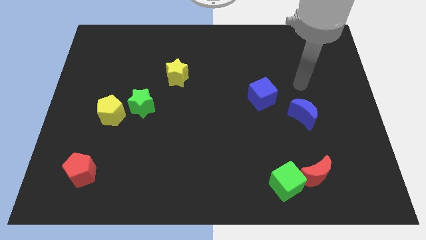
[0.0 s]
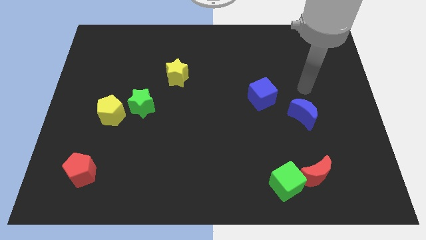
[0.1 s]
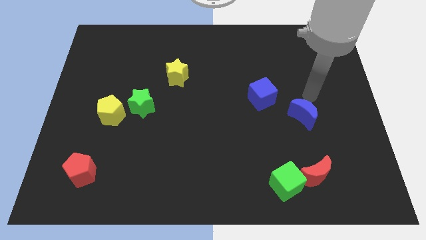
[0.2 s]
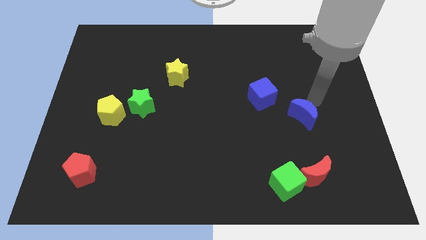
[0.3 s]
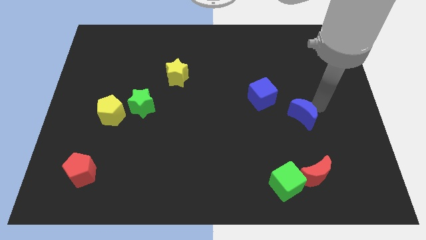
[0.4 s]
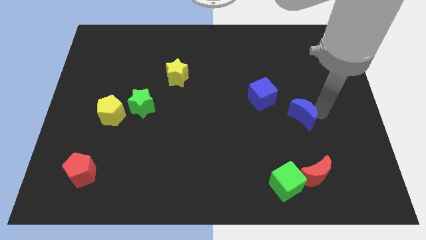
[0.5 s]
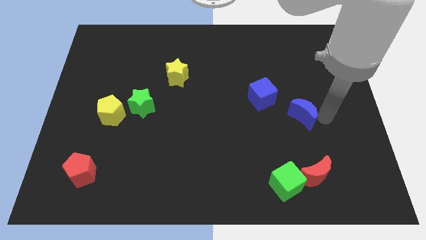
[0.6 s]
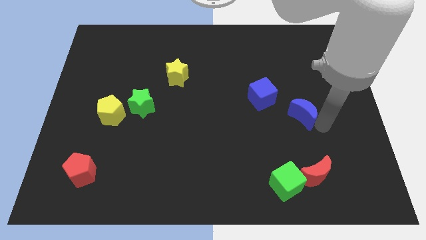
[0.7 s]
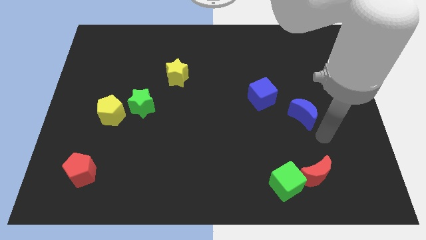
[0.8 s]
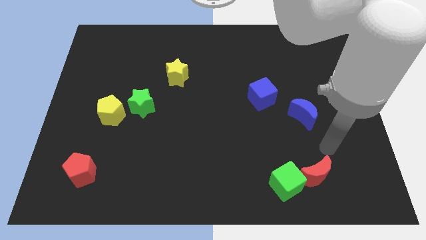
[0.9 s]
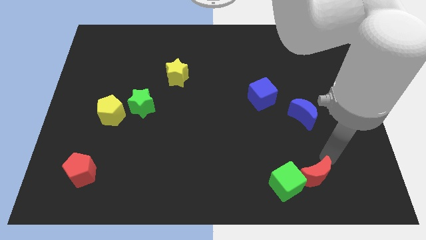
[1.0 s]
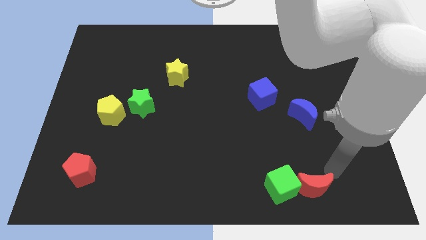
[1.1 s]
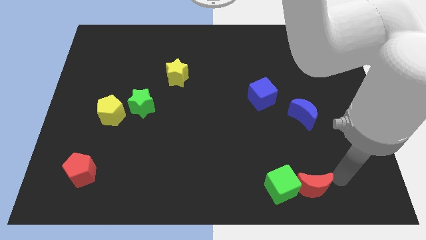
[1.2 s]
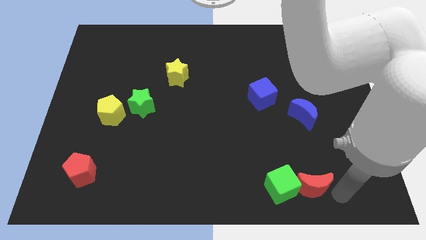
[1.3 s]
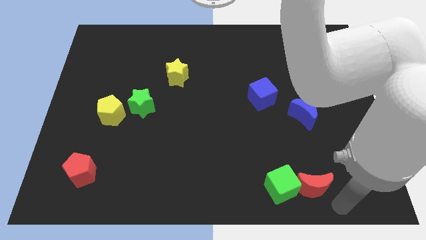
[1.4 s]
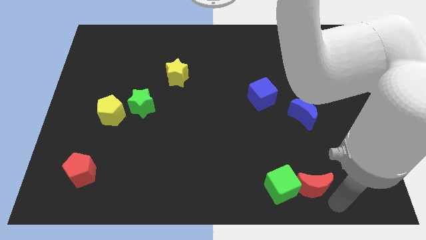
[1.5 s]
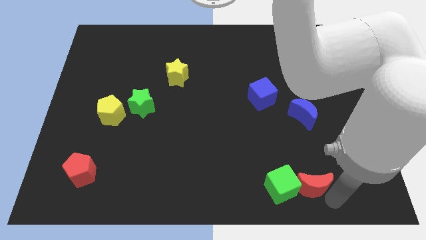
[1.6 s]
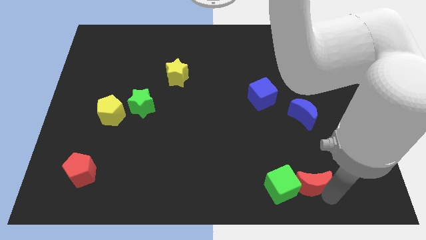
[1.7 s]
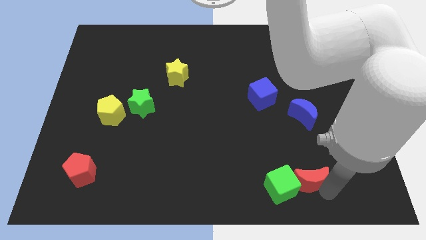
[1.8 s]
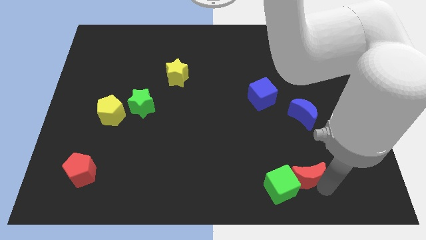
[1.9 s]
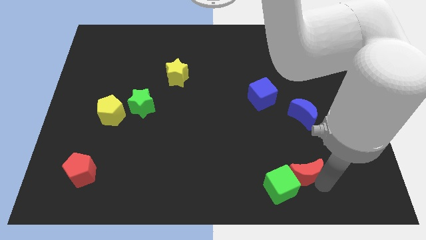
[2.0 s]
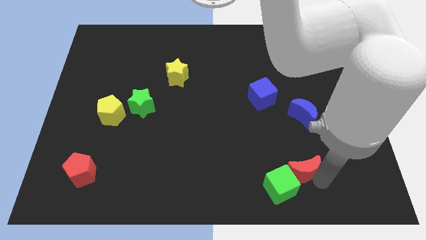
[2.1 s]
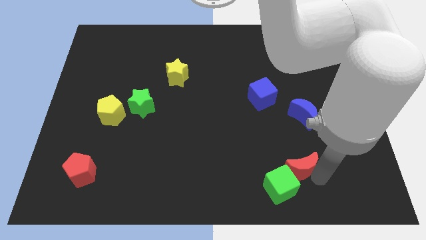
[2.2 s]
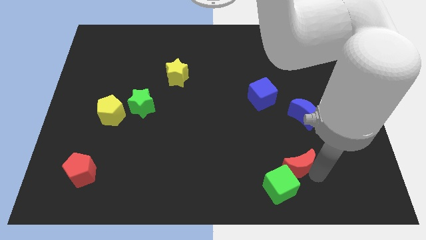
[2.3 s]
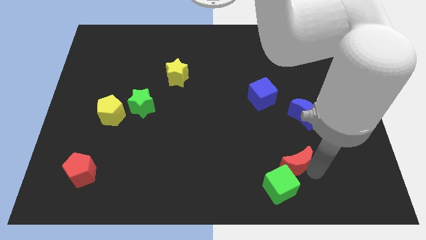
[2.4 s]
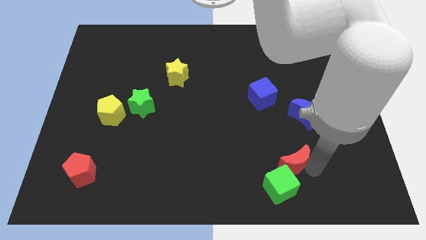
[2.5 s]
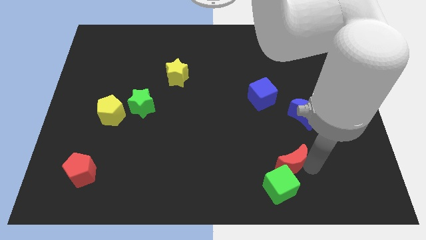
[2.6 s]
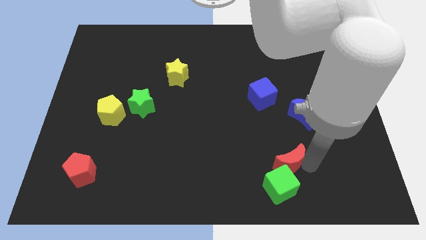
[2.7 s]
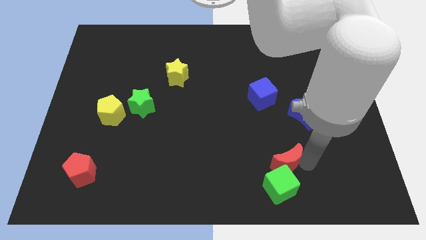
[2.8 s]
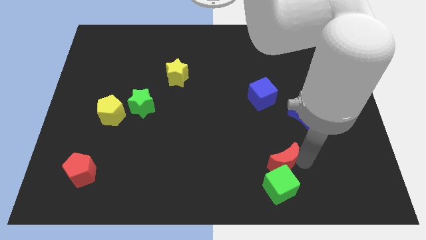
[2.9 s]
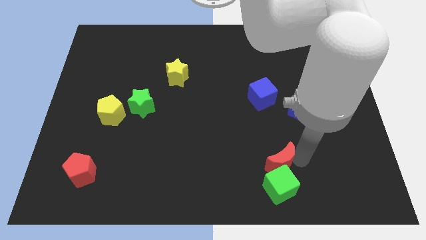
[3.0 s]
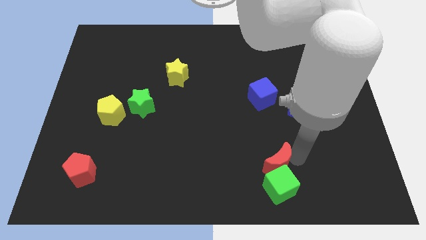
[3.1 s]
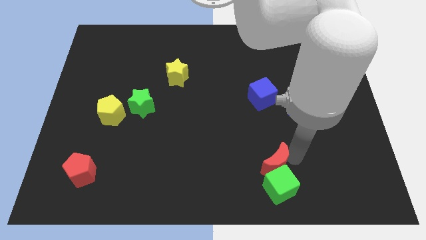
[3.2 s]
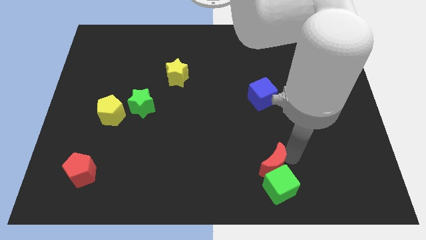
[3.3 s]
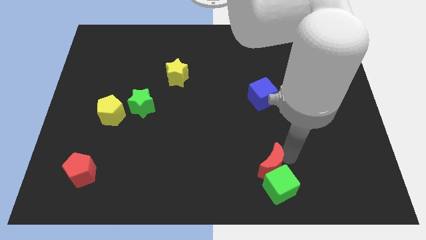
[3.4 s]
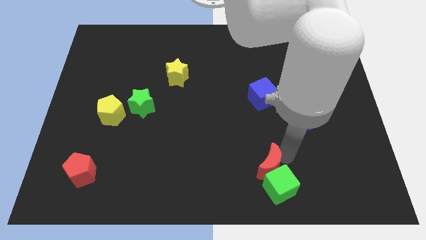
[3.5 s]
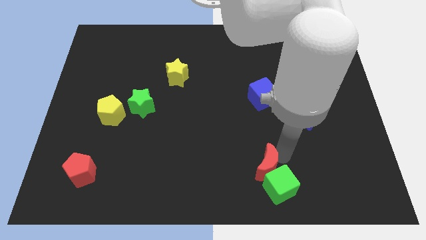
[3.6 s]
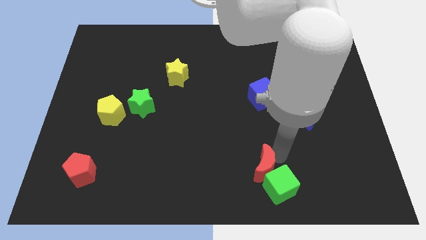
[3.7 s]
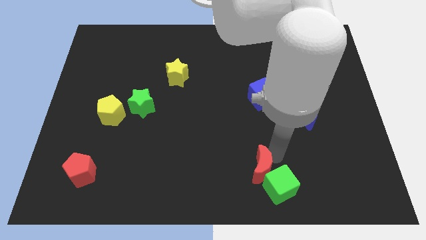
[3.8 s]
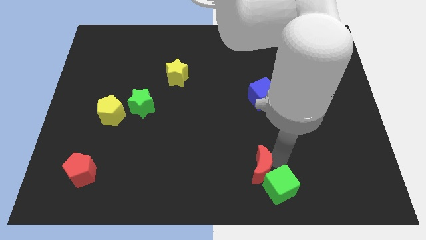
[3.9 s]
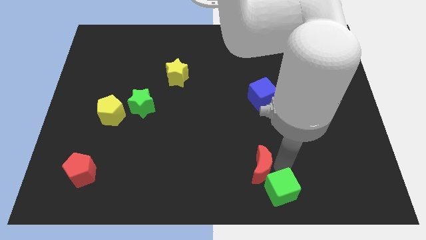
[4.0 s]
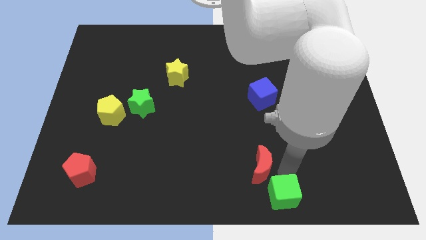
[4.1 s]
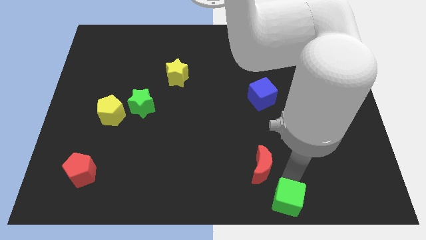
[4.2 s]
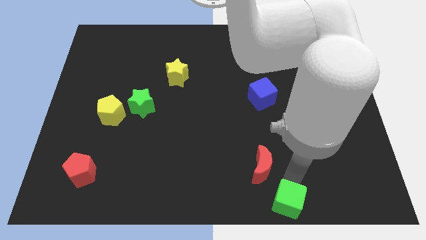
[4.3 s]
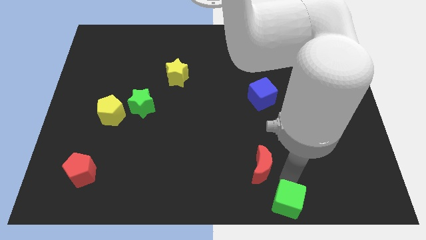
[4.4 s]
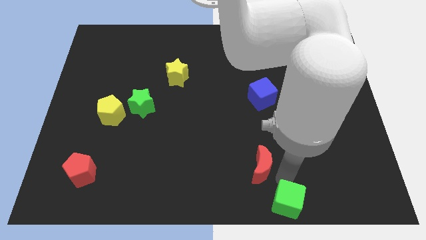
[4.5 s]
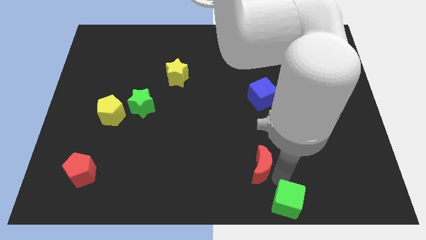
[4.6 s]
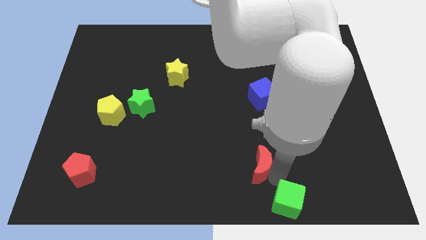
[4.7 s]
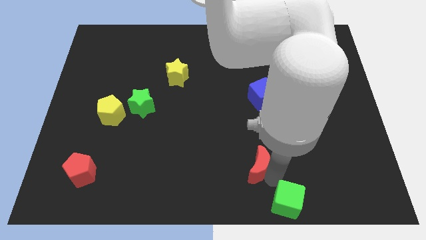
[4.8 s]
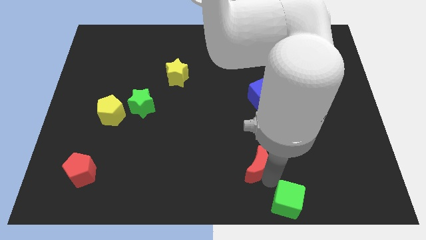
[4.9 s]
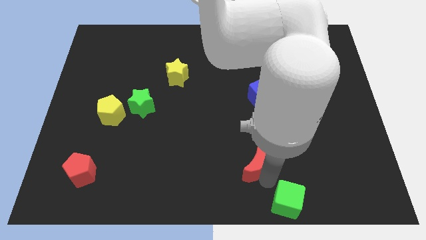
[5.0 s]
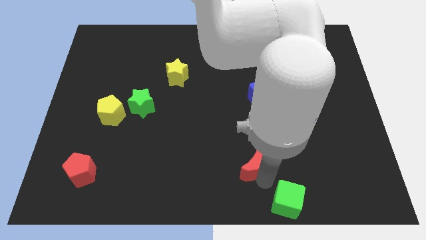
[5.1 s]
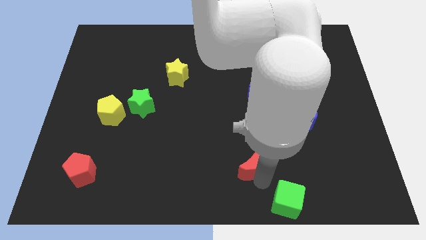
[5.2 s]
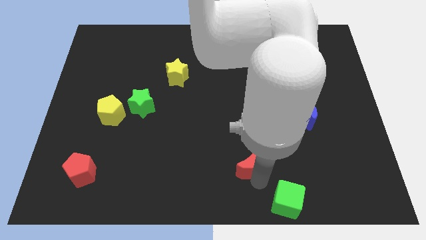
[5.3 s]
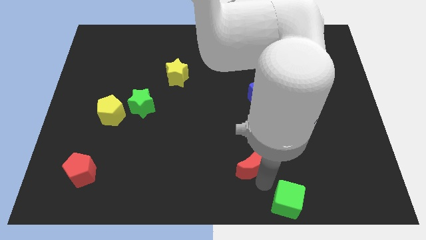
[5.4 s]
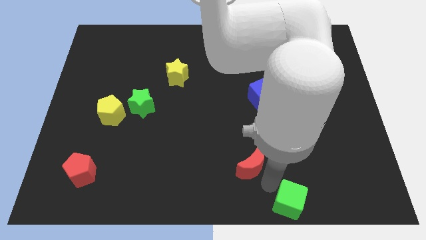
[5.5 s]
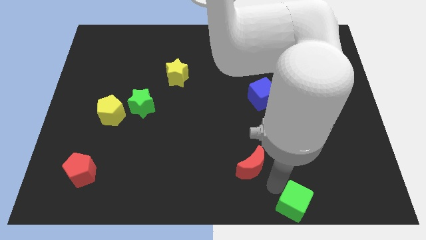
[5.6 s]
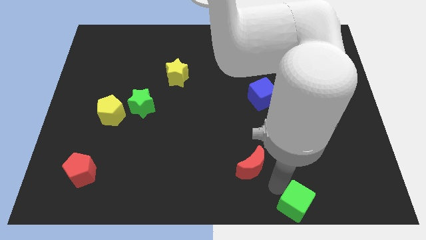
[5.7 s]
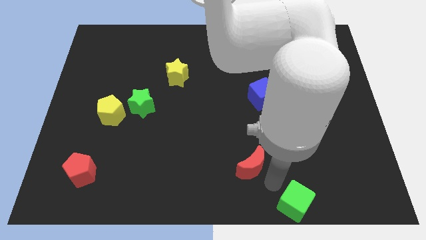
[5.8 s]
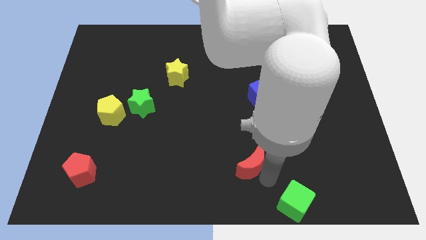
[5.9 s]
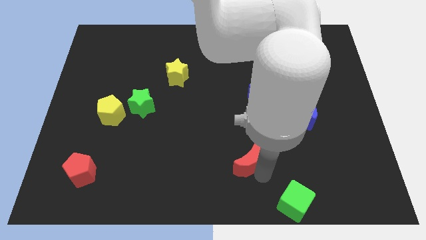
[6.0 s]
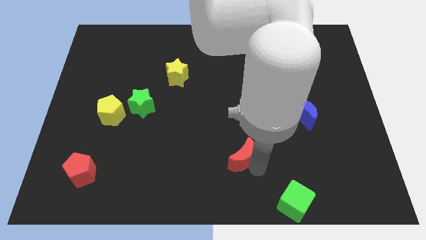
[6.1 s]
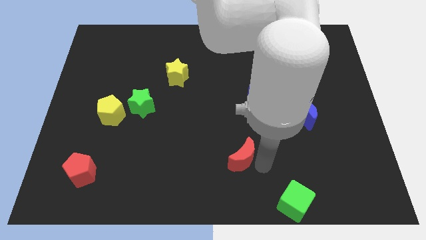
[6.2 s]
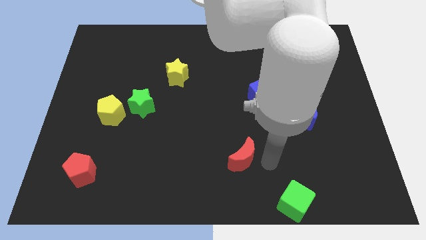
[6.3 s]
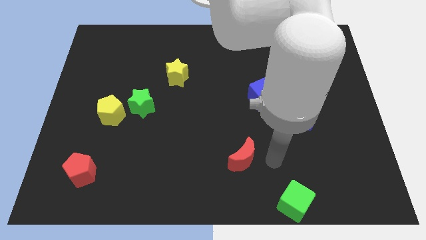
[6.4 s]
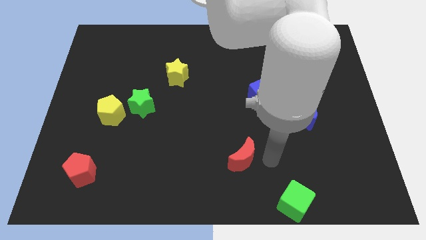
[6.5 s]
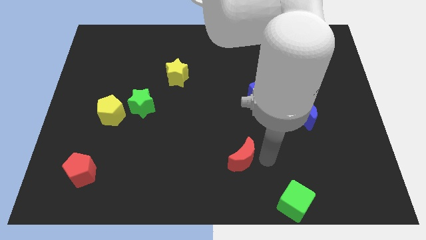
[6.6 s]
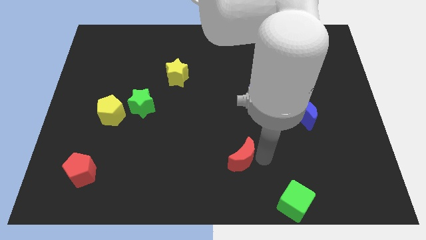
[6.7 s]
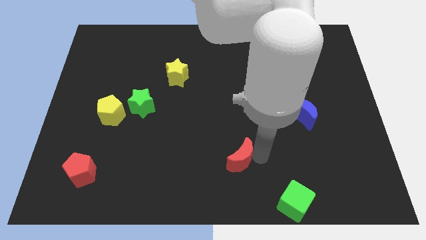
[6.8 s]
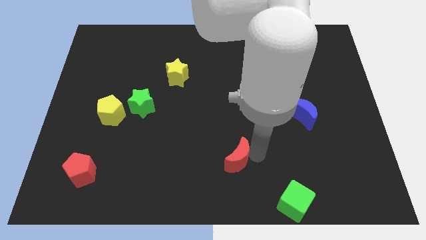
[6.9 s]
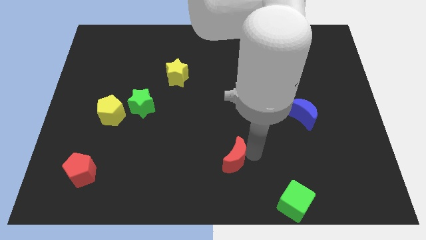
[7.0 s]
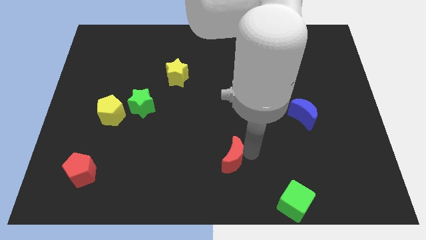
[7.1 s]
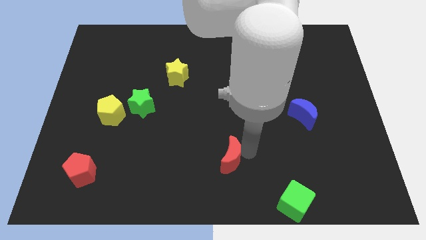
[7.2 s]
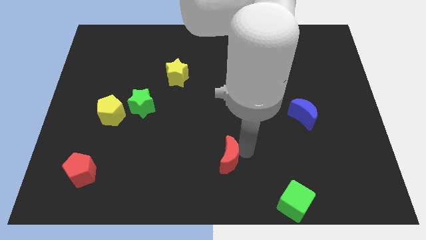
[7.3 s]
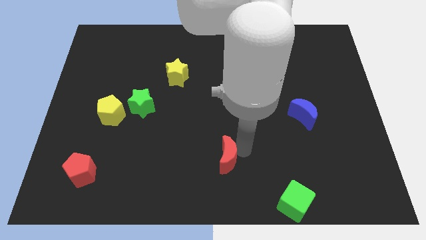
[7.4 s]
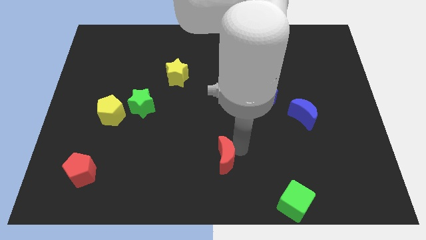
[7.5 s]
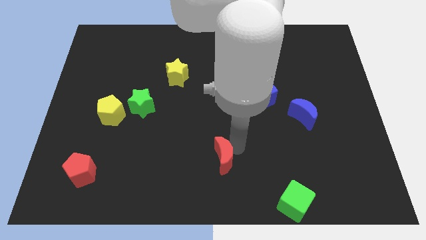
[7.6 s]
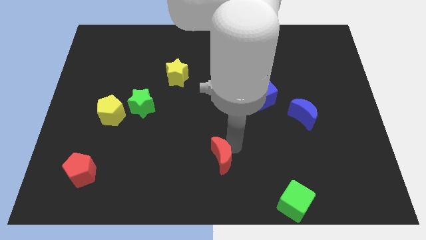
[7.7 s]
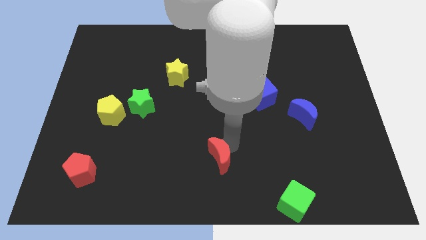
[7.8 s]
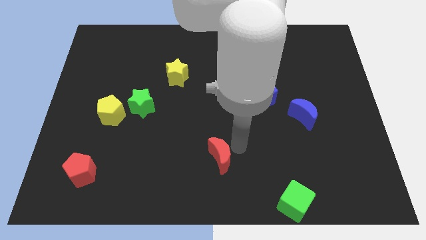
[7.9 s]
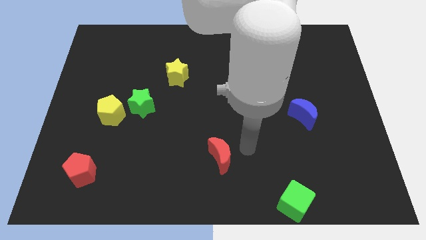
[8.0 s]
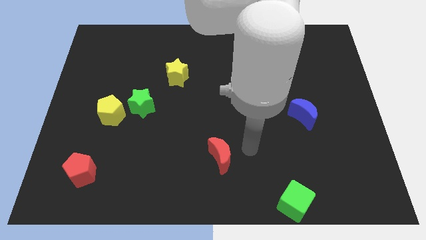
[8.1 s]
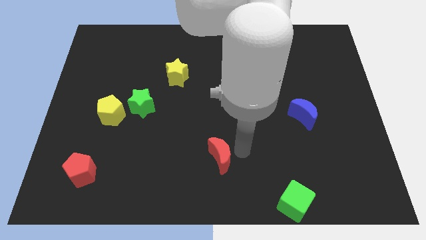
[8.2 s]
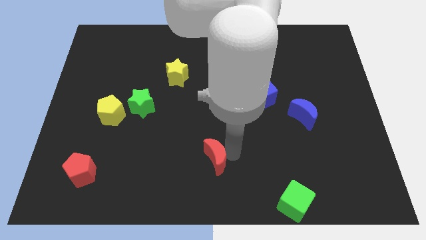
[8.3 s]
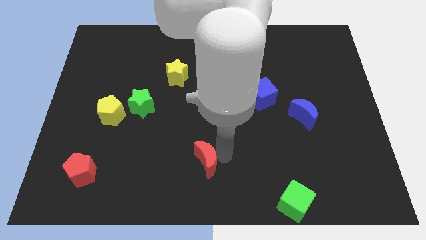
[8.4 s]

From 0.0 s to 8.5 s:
push the red moon left
